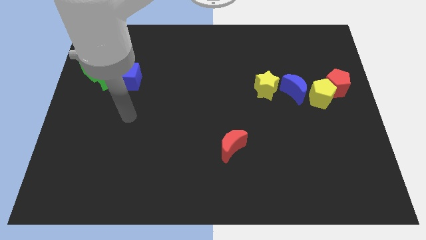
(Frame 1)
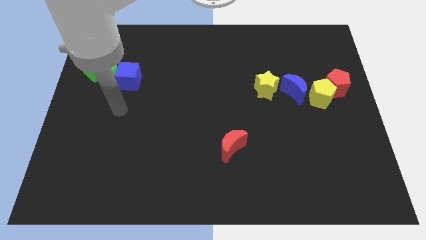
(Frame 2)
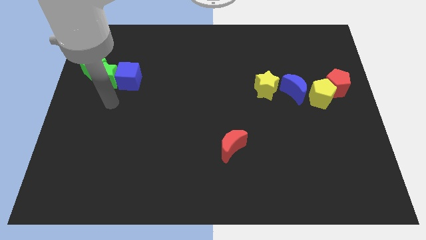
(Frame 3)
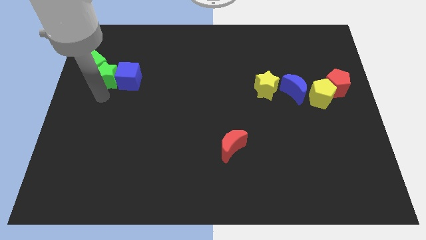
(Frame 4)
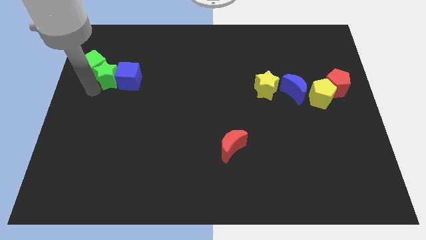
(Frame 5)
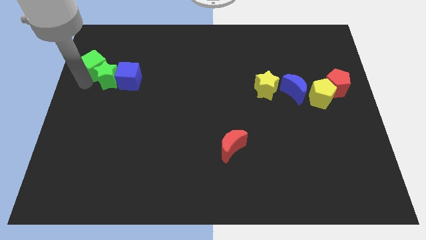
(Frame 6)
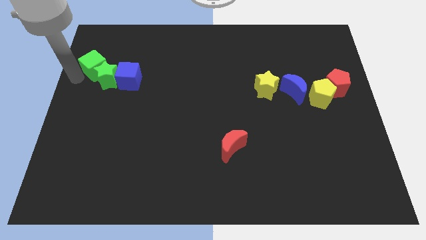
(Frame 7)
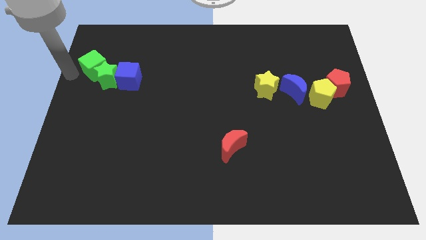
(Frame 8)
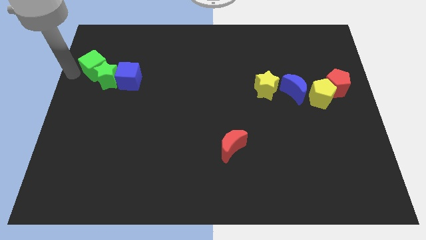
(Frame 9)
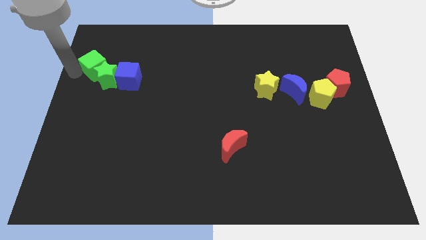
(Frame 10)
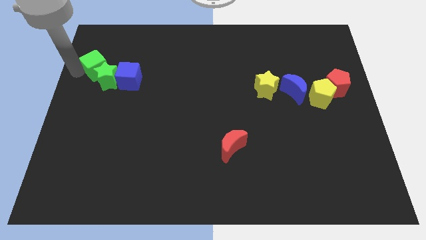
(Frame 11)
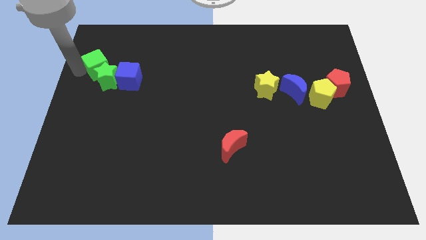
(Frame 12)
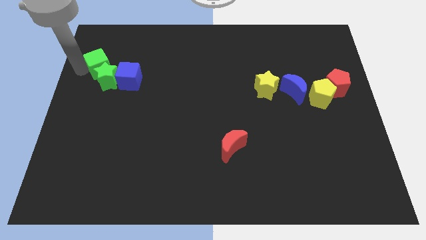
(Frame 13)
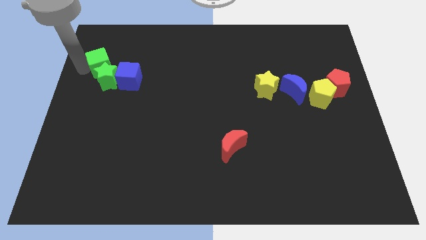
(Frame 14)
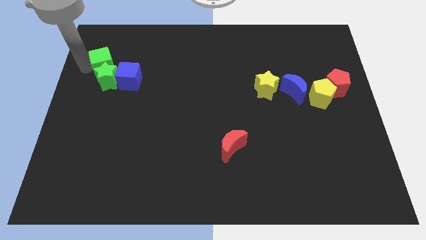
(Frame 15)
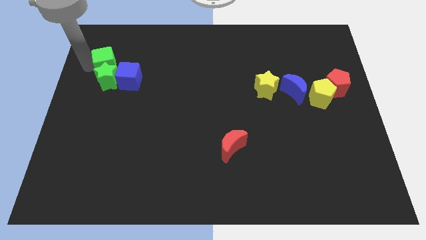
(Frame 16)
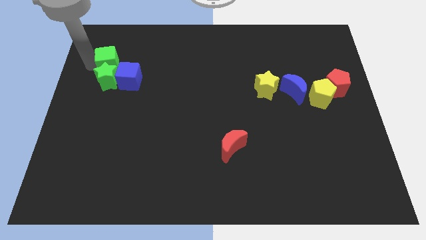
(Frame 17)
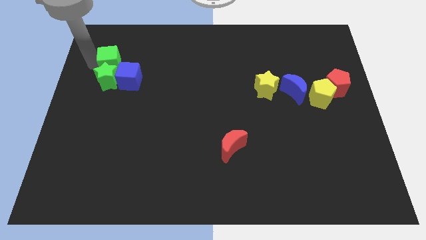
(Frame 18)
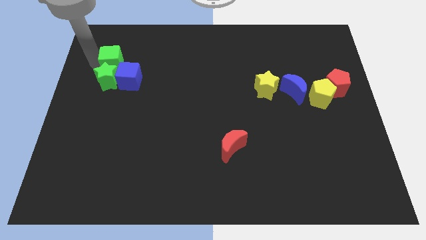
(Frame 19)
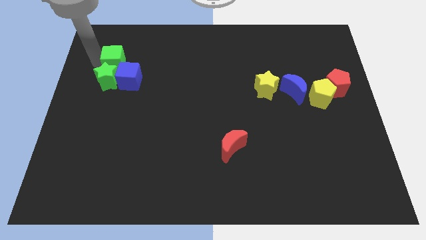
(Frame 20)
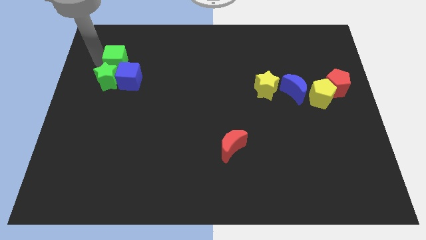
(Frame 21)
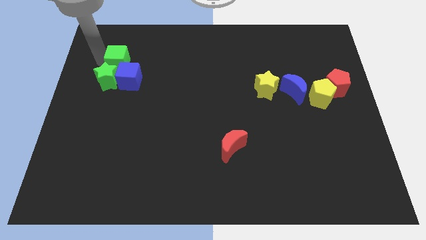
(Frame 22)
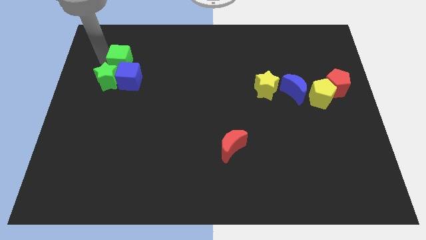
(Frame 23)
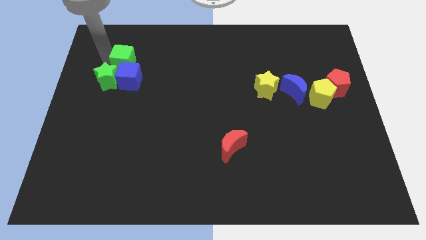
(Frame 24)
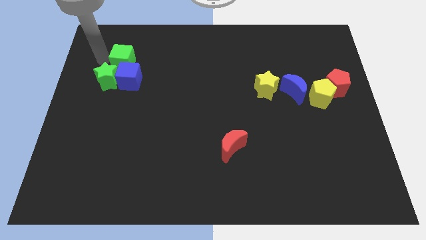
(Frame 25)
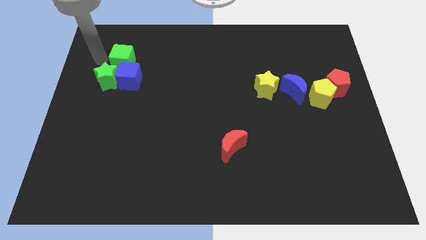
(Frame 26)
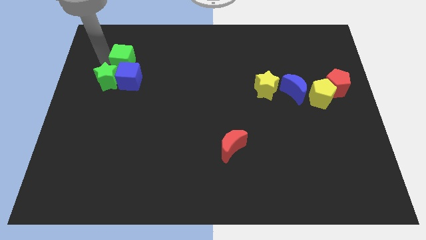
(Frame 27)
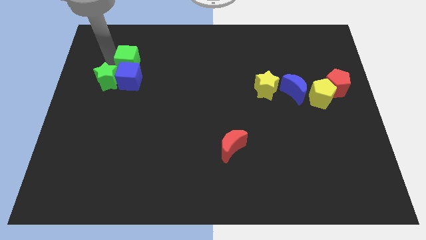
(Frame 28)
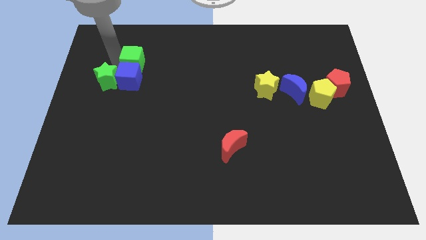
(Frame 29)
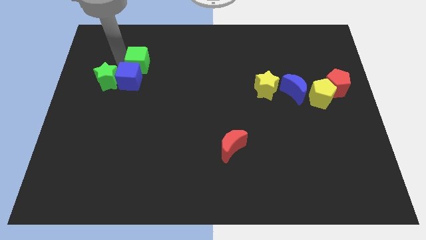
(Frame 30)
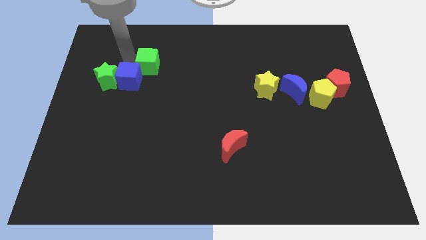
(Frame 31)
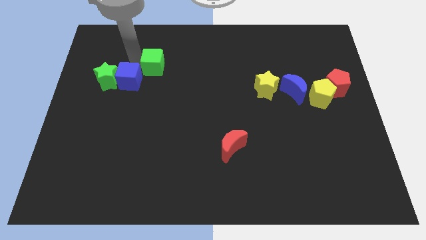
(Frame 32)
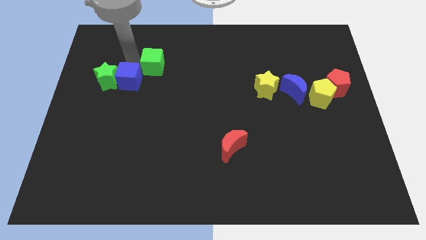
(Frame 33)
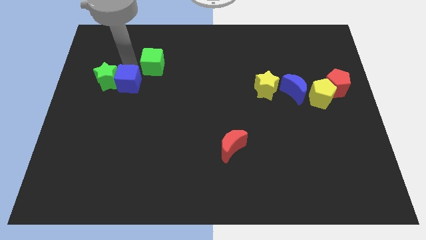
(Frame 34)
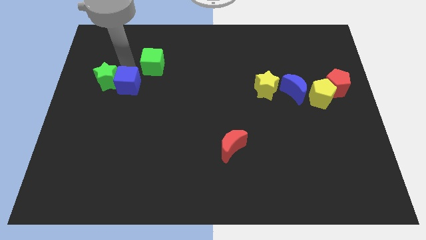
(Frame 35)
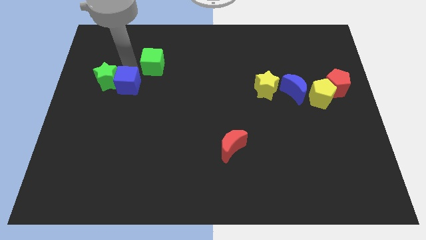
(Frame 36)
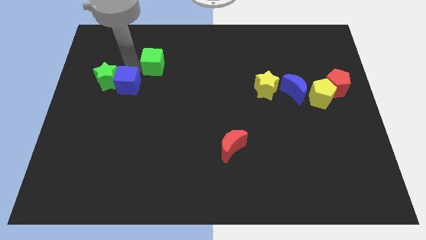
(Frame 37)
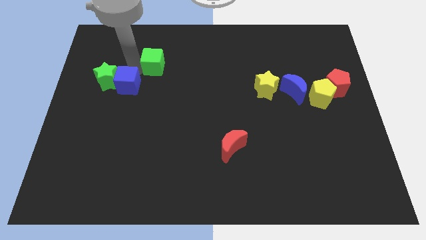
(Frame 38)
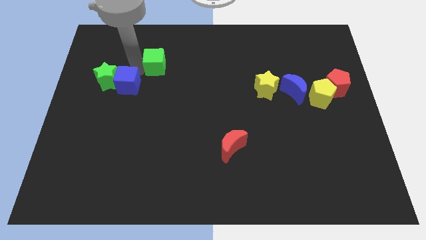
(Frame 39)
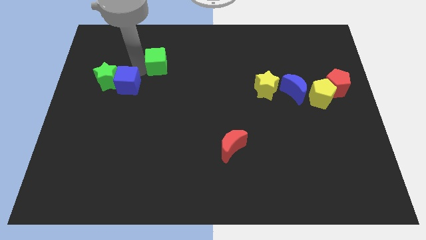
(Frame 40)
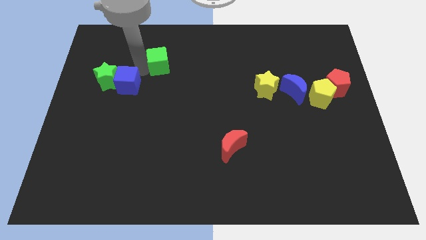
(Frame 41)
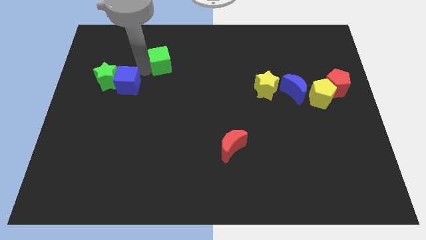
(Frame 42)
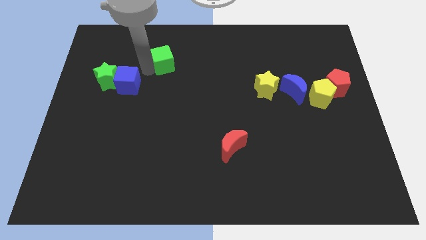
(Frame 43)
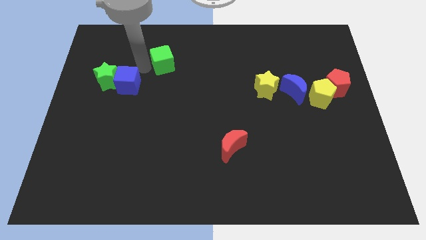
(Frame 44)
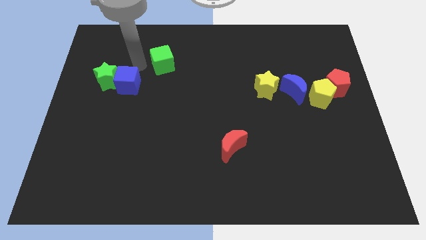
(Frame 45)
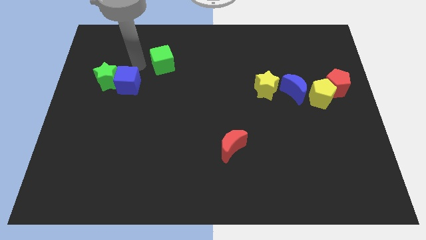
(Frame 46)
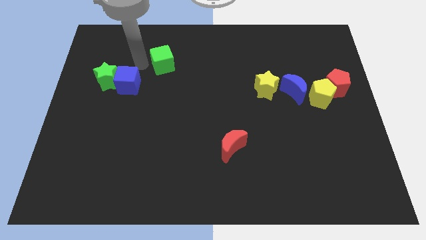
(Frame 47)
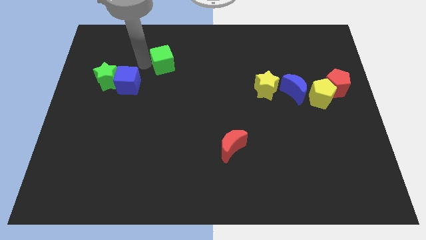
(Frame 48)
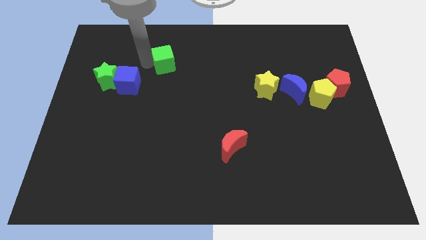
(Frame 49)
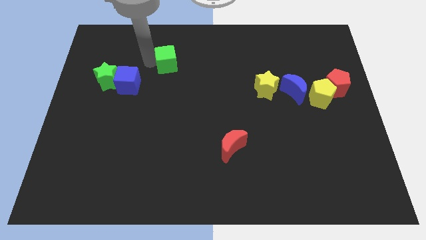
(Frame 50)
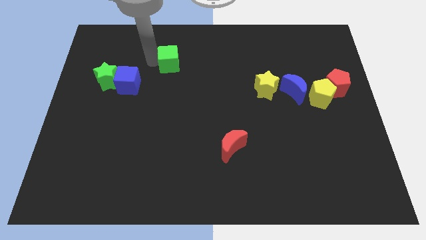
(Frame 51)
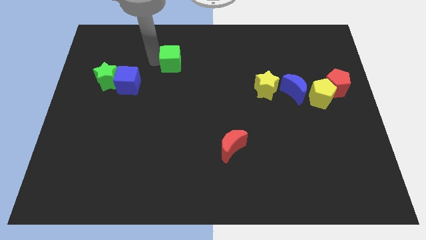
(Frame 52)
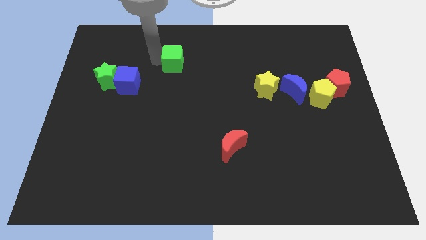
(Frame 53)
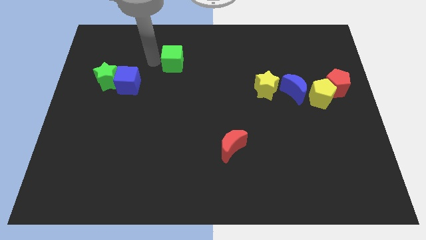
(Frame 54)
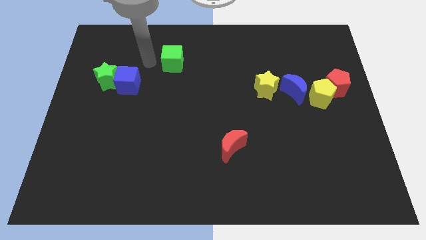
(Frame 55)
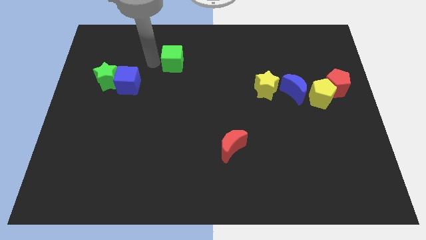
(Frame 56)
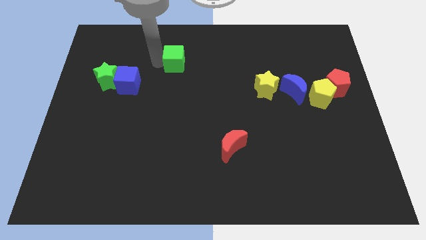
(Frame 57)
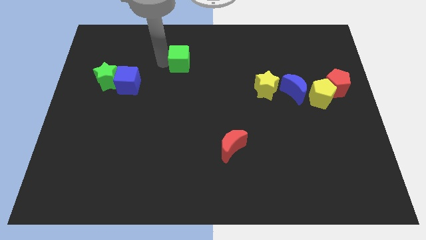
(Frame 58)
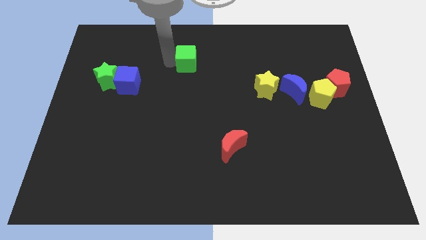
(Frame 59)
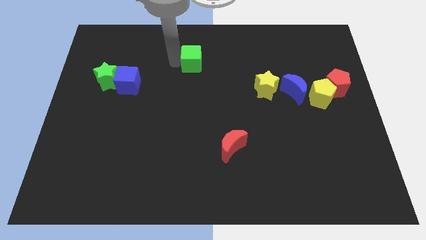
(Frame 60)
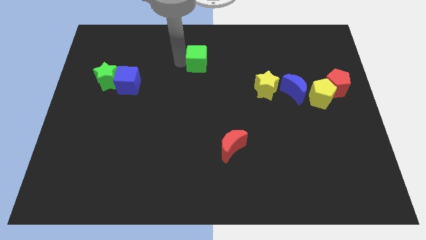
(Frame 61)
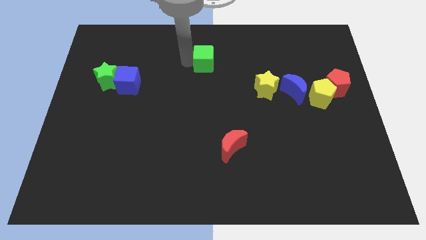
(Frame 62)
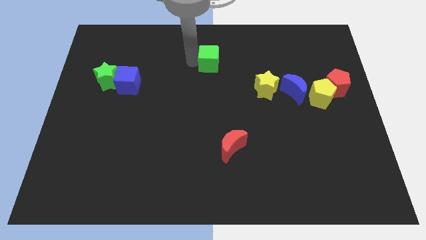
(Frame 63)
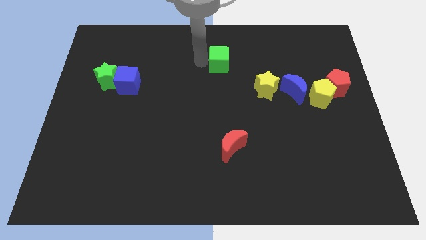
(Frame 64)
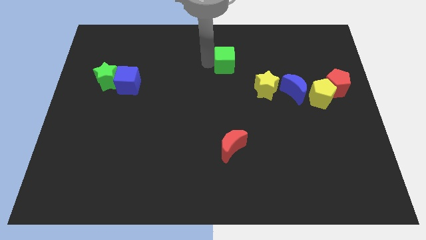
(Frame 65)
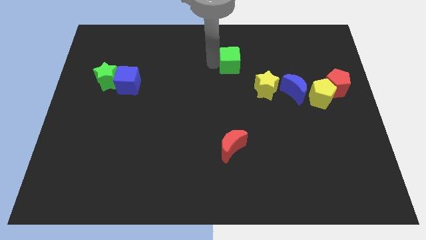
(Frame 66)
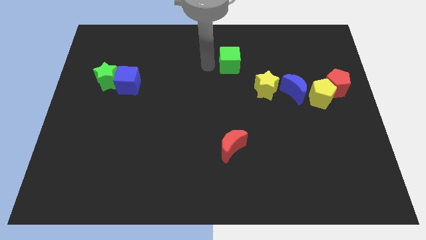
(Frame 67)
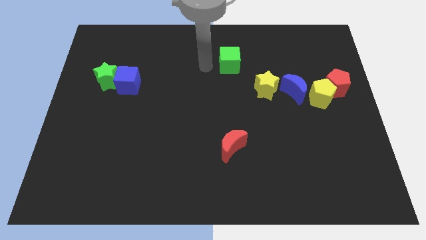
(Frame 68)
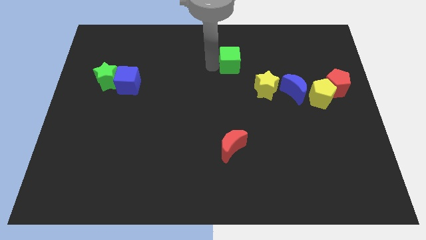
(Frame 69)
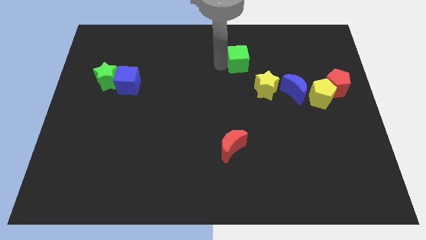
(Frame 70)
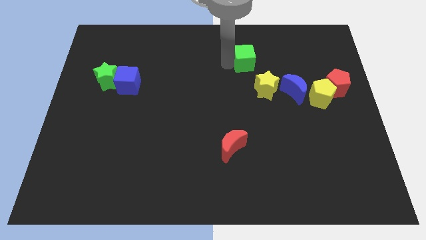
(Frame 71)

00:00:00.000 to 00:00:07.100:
slide the green cube to the top side of the yellow star

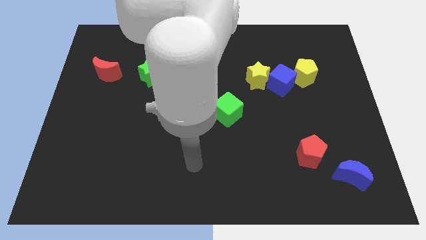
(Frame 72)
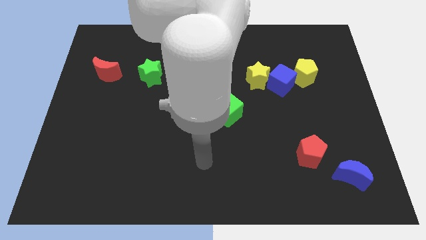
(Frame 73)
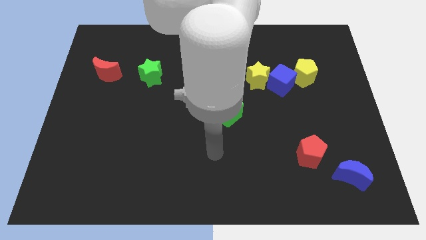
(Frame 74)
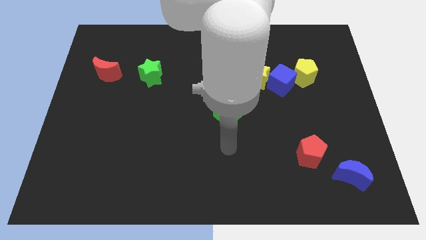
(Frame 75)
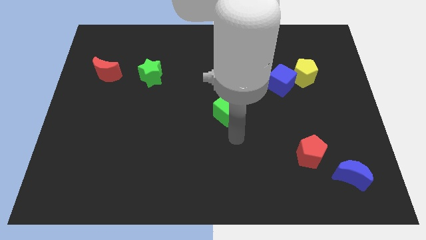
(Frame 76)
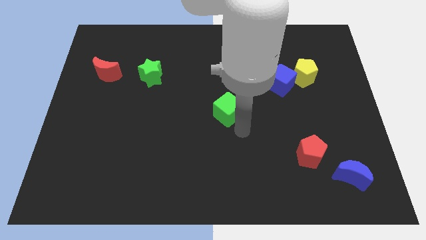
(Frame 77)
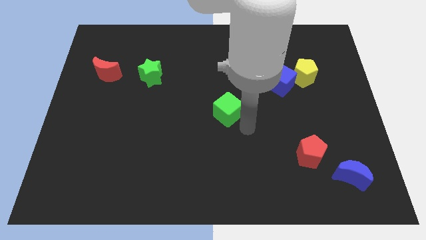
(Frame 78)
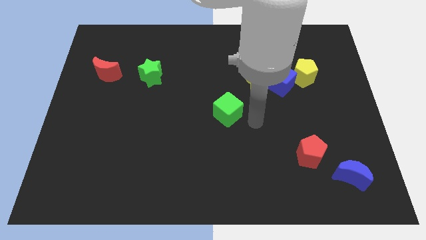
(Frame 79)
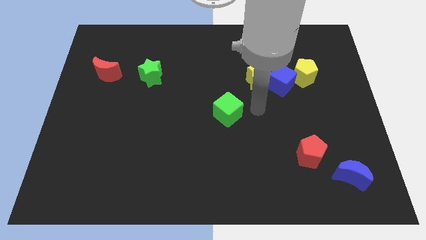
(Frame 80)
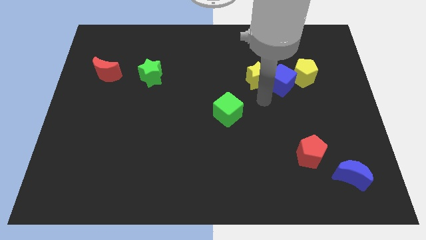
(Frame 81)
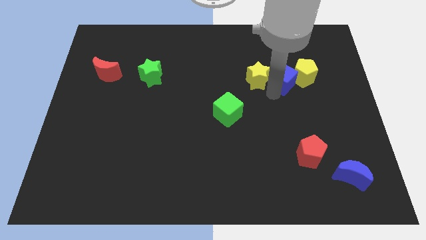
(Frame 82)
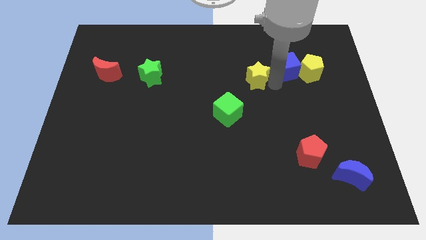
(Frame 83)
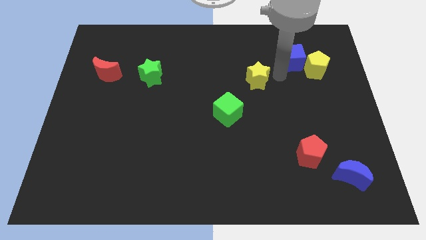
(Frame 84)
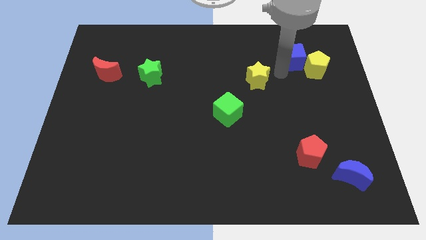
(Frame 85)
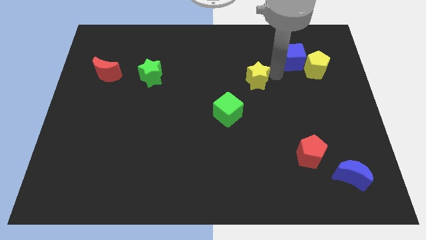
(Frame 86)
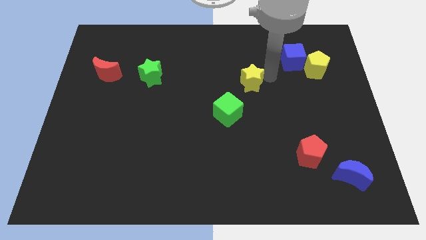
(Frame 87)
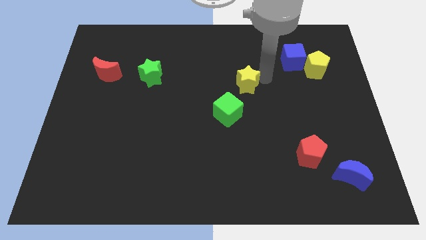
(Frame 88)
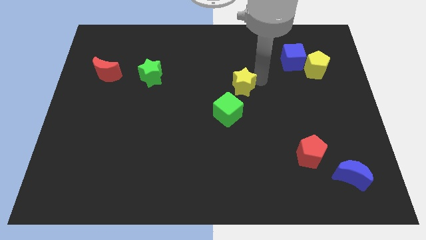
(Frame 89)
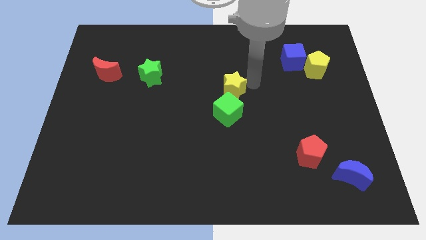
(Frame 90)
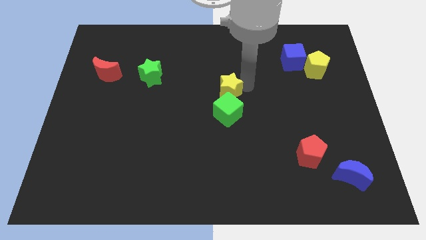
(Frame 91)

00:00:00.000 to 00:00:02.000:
put the yellow star to the top left side of the green cube
